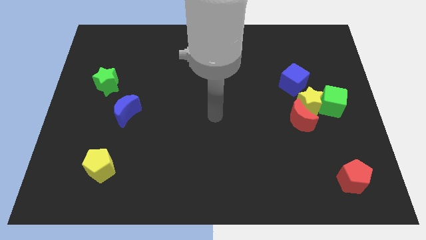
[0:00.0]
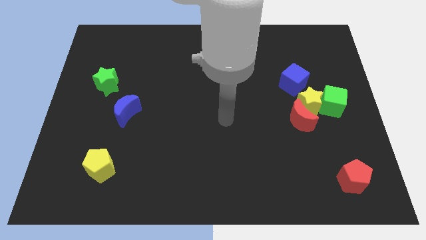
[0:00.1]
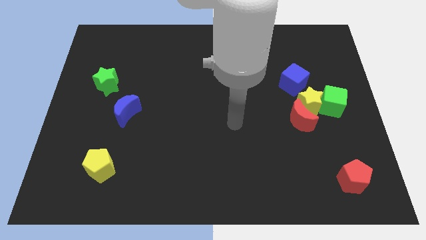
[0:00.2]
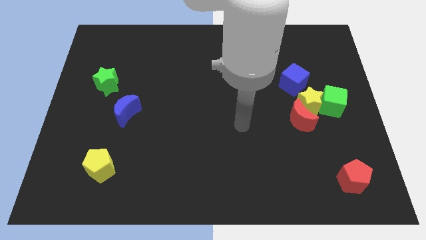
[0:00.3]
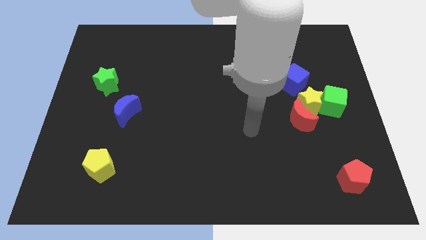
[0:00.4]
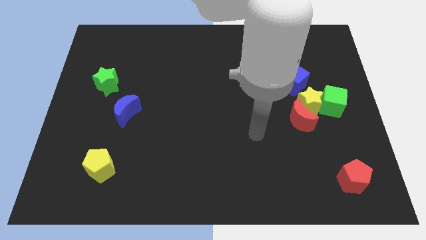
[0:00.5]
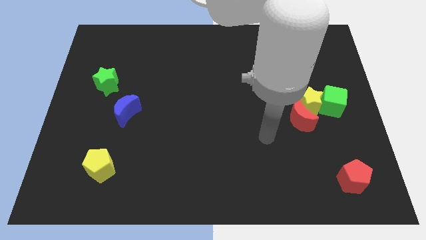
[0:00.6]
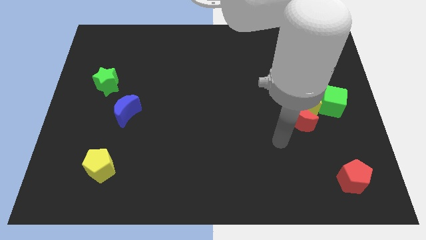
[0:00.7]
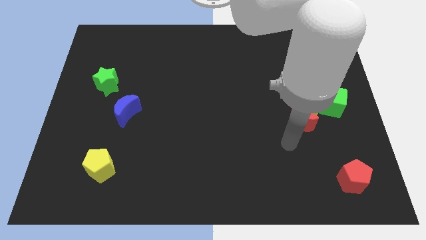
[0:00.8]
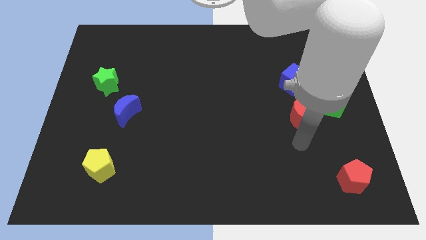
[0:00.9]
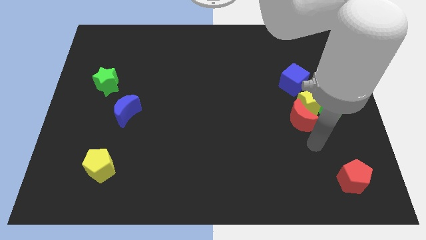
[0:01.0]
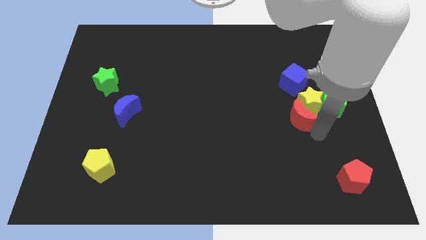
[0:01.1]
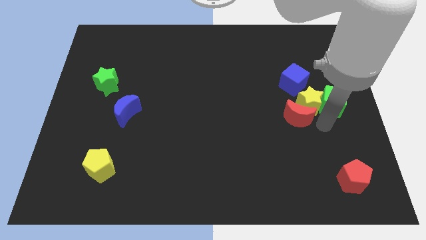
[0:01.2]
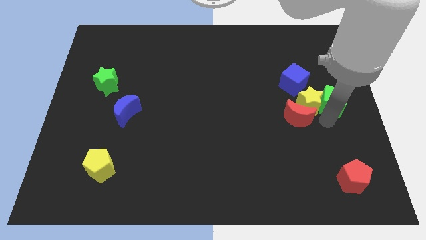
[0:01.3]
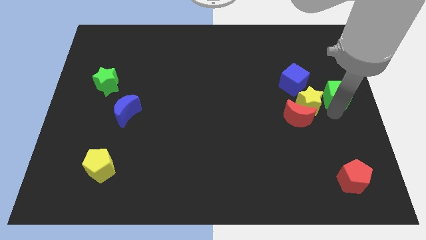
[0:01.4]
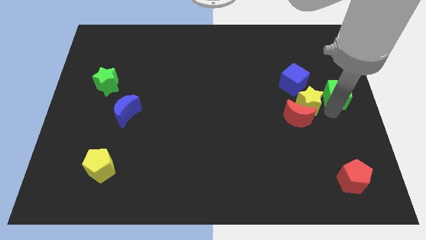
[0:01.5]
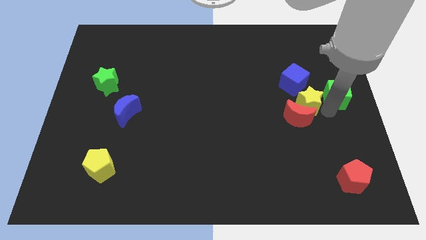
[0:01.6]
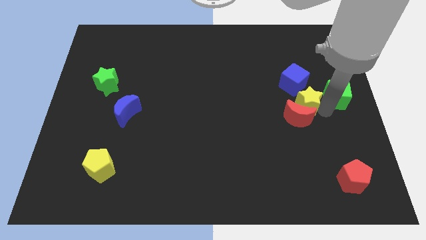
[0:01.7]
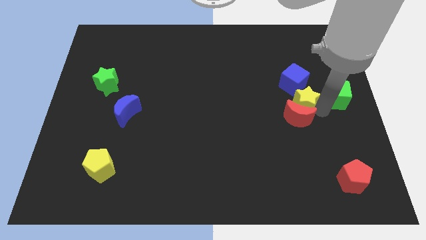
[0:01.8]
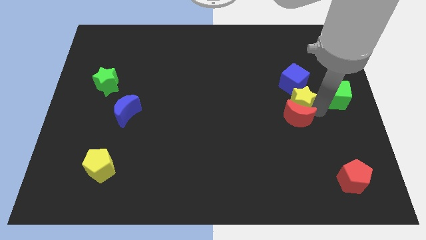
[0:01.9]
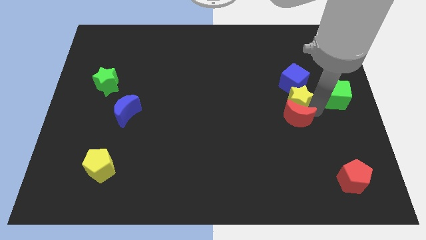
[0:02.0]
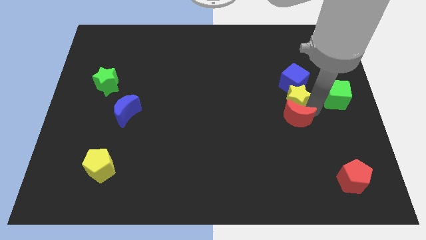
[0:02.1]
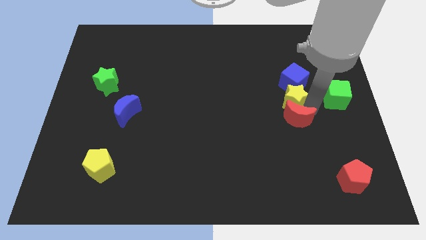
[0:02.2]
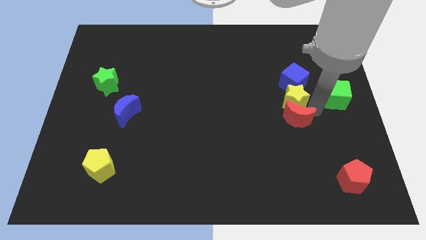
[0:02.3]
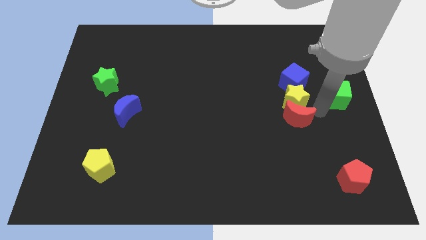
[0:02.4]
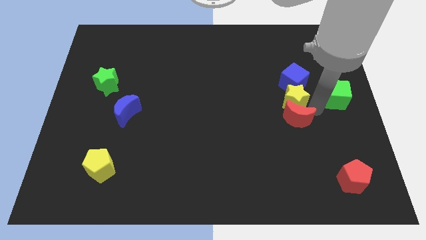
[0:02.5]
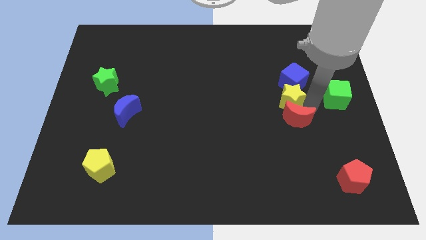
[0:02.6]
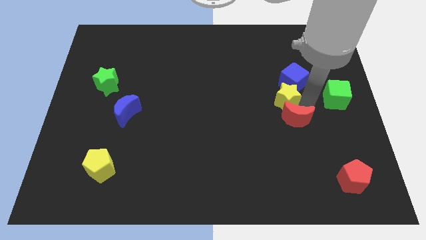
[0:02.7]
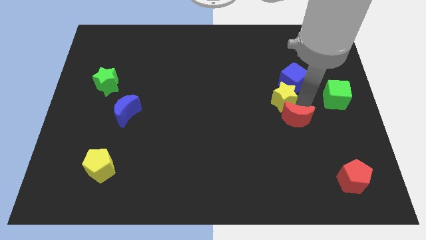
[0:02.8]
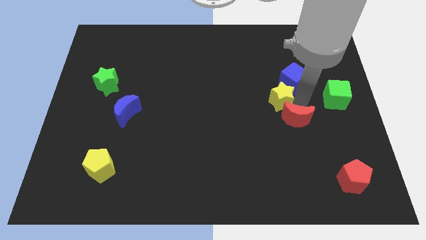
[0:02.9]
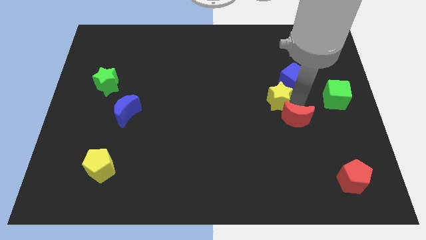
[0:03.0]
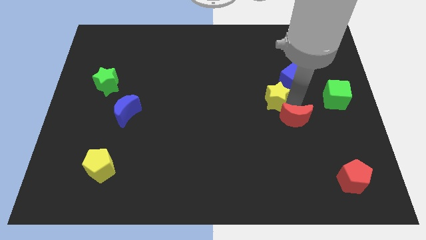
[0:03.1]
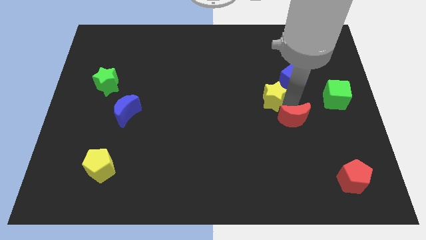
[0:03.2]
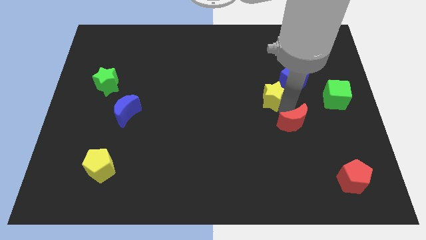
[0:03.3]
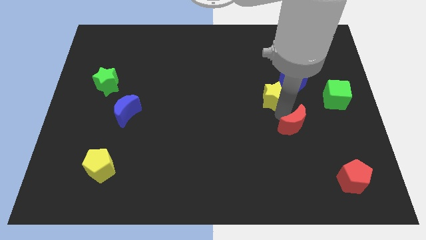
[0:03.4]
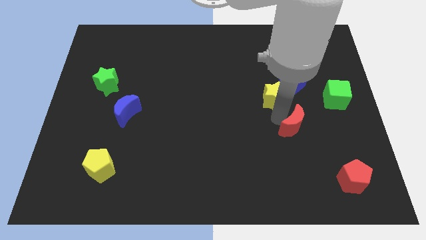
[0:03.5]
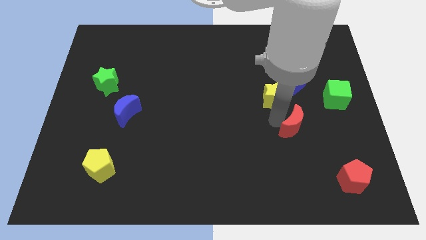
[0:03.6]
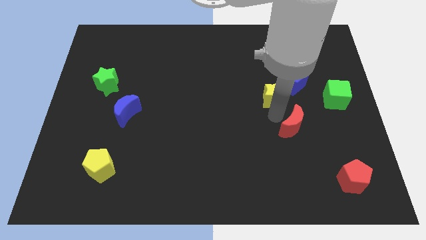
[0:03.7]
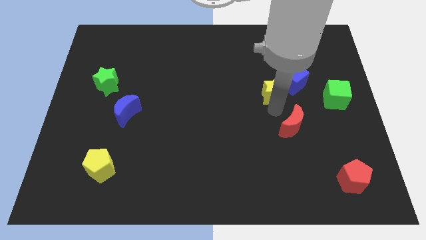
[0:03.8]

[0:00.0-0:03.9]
slide the yellow star a bit up and then left

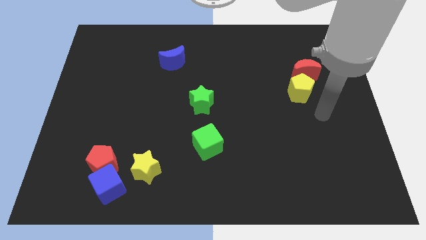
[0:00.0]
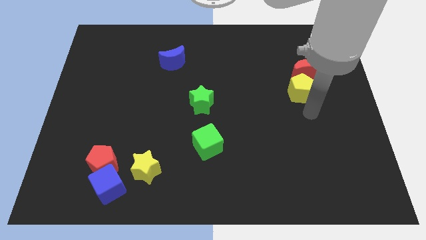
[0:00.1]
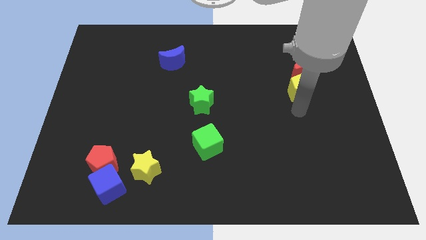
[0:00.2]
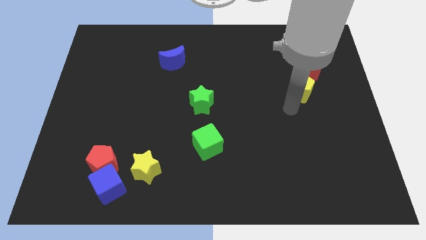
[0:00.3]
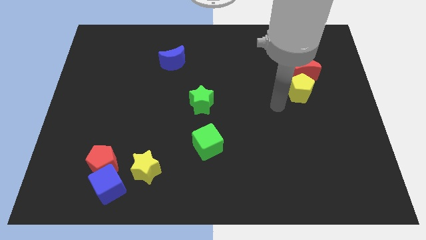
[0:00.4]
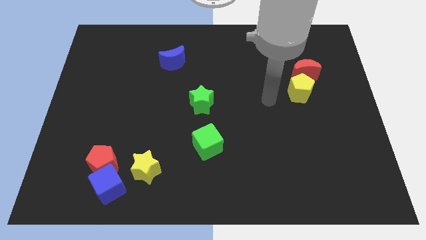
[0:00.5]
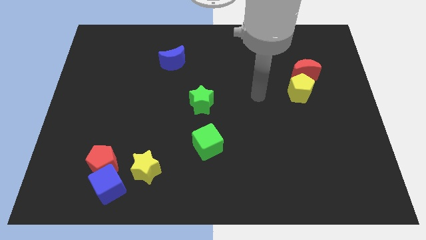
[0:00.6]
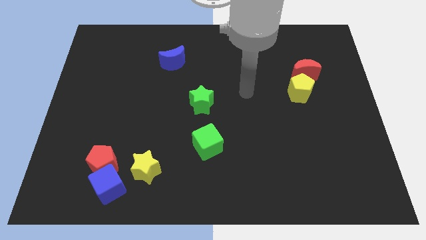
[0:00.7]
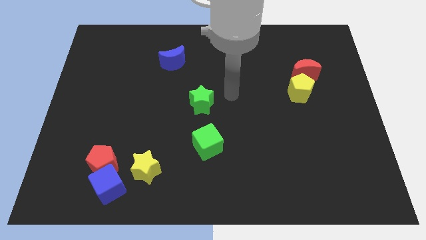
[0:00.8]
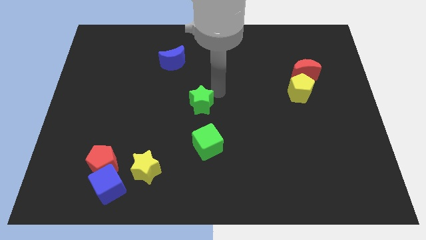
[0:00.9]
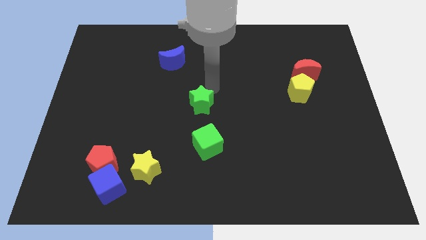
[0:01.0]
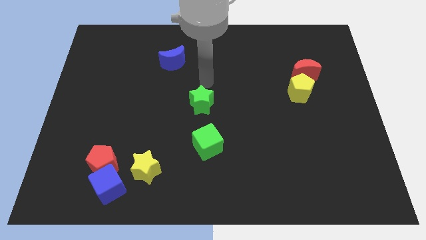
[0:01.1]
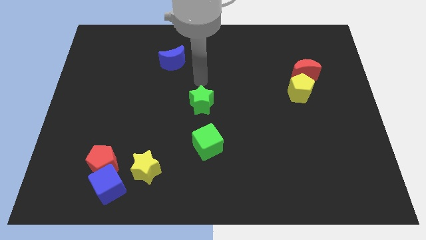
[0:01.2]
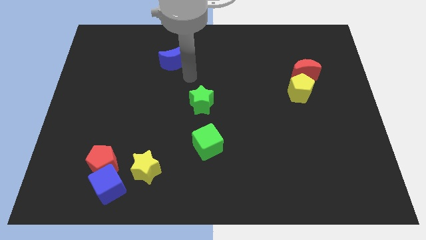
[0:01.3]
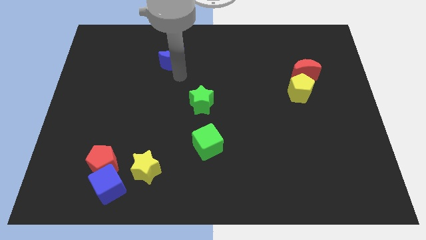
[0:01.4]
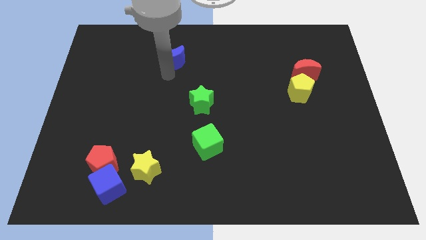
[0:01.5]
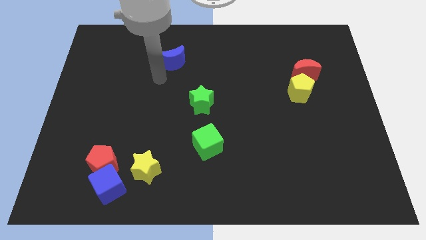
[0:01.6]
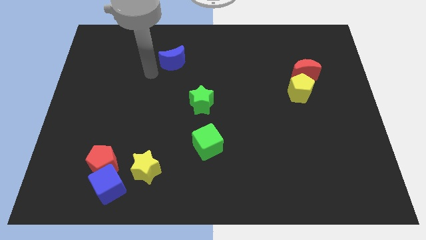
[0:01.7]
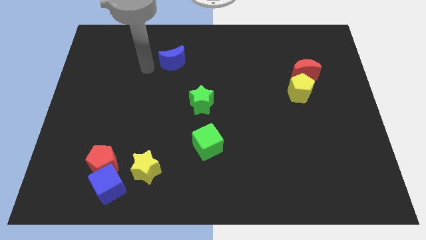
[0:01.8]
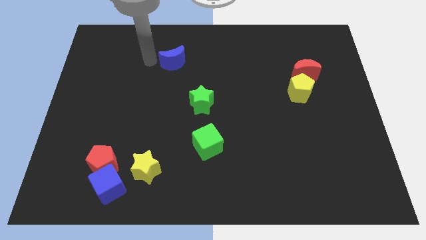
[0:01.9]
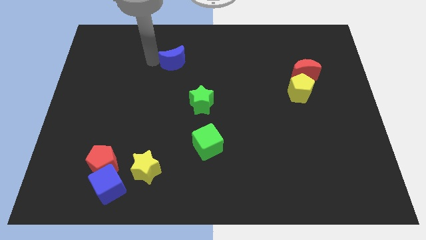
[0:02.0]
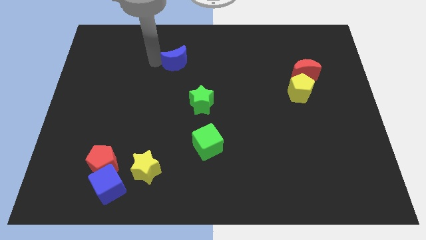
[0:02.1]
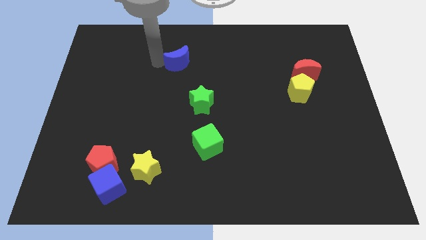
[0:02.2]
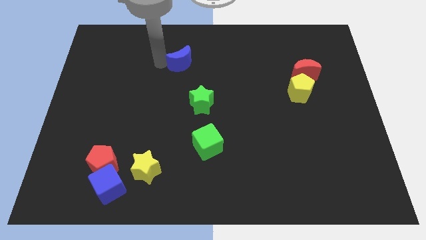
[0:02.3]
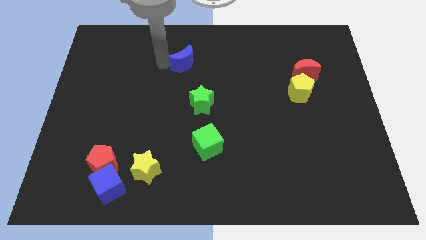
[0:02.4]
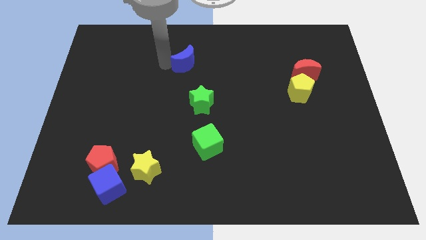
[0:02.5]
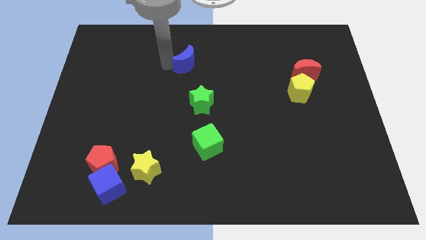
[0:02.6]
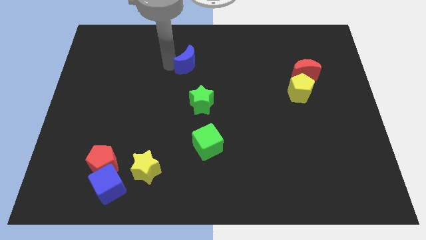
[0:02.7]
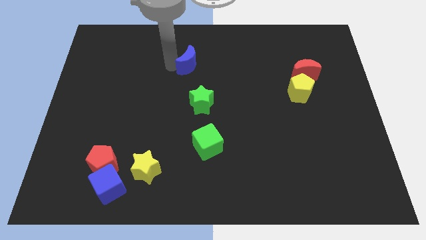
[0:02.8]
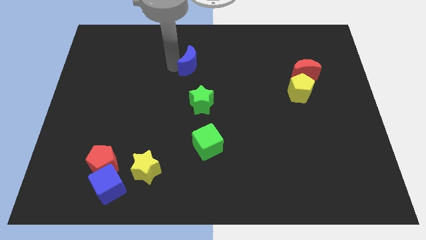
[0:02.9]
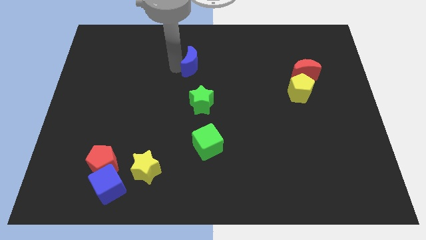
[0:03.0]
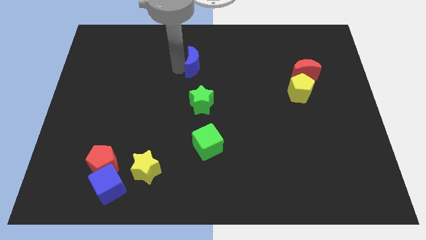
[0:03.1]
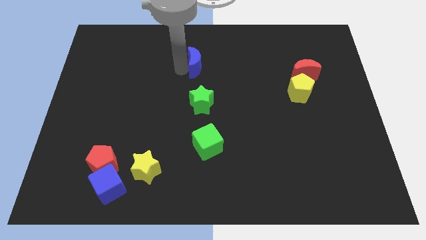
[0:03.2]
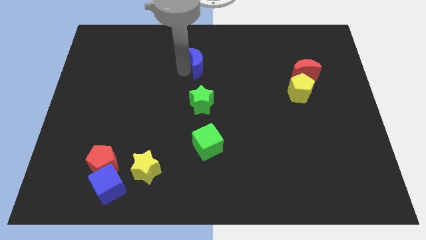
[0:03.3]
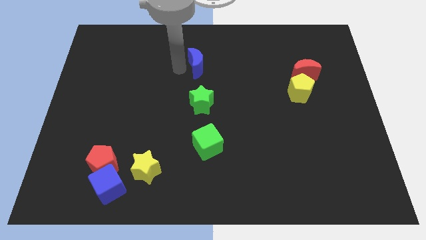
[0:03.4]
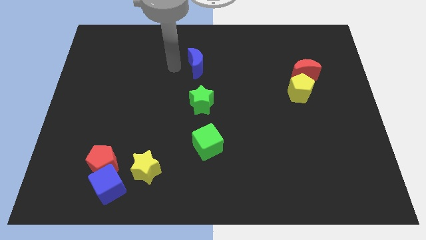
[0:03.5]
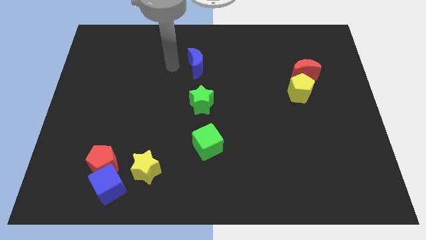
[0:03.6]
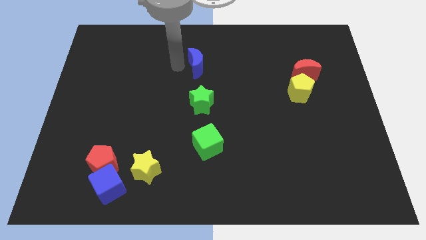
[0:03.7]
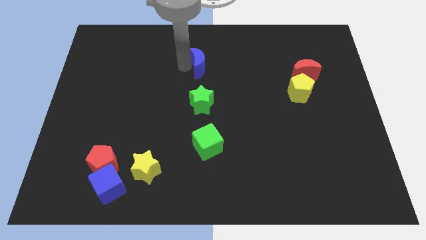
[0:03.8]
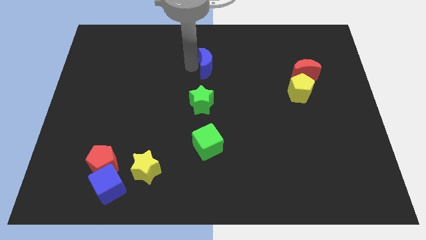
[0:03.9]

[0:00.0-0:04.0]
slide the blue moon right a bit

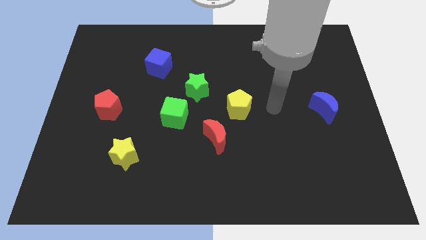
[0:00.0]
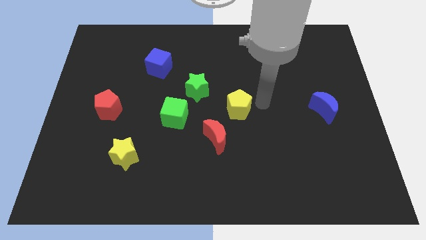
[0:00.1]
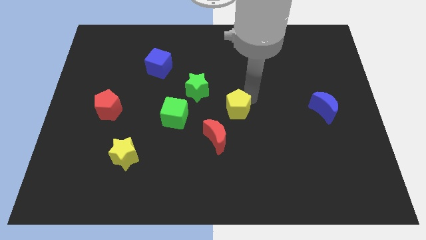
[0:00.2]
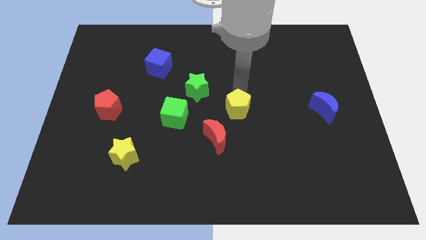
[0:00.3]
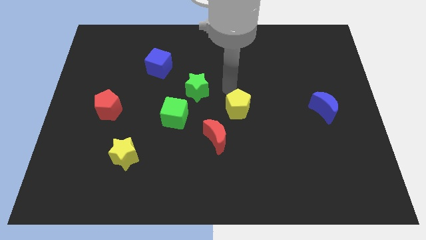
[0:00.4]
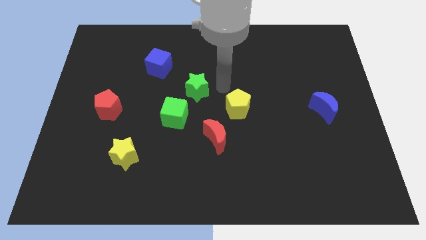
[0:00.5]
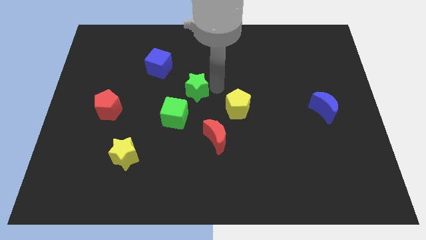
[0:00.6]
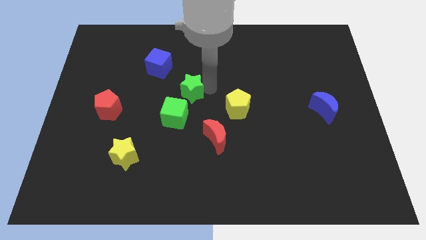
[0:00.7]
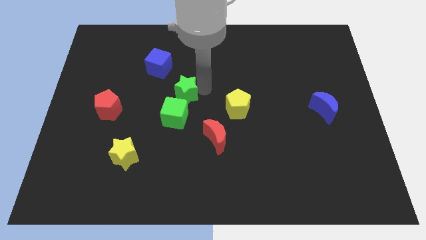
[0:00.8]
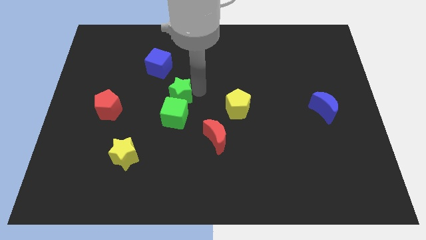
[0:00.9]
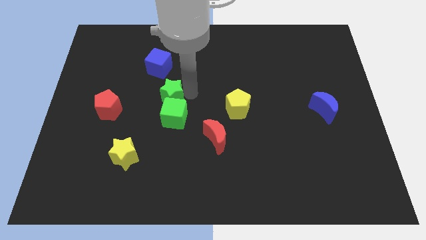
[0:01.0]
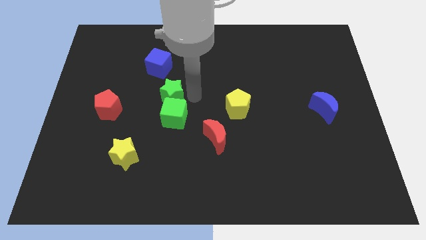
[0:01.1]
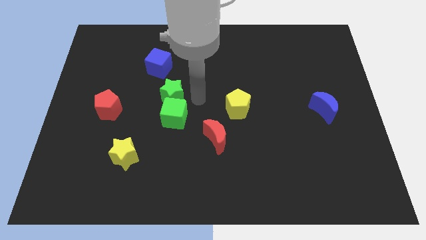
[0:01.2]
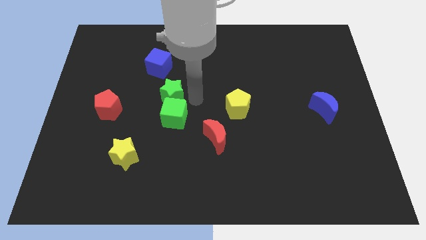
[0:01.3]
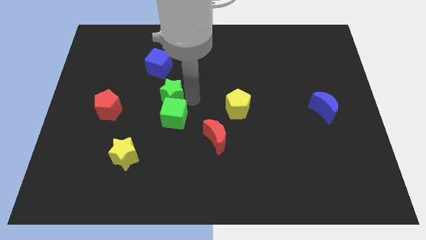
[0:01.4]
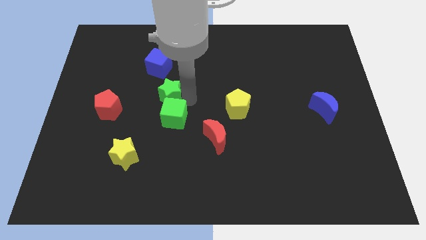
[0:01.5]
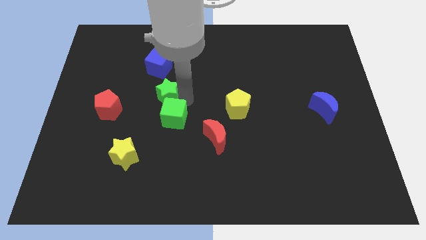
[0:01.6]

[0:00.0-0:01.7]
move the green star a little to the left
